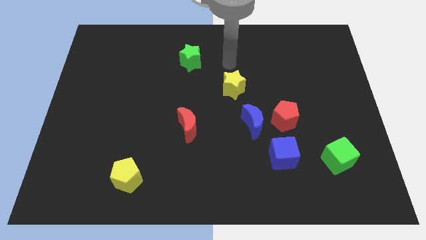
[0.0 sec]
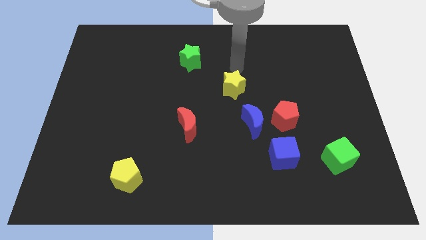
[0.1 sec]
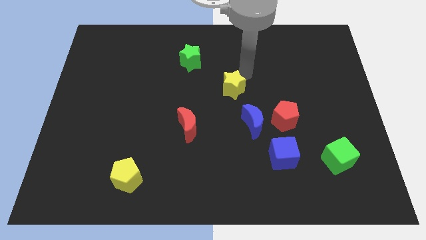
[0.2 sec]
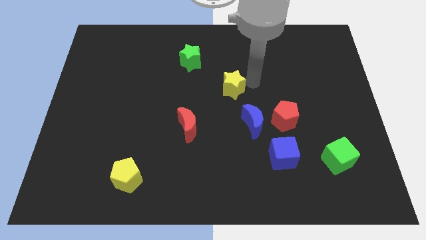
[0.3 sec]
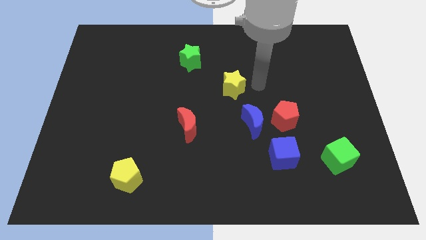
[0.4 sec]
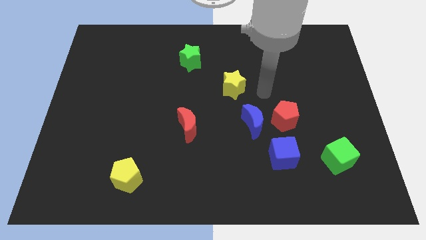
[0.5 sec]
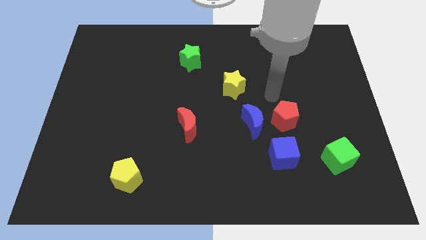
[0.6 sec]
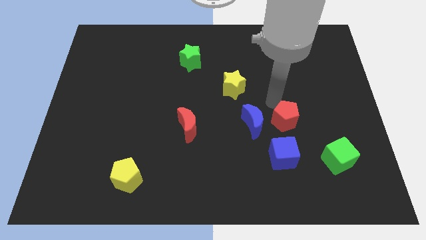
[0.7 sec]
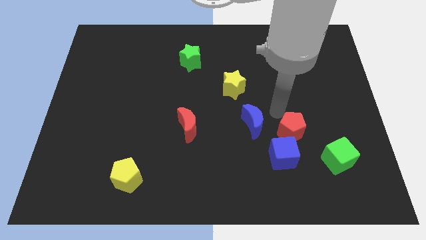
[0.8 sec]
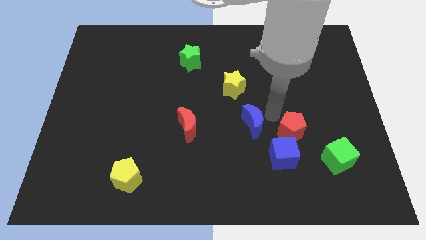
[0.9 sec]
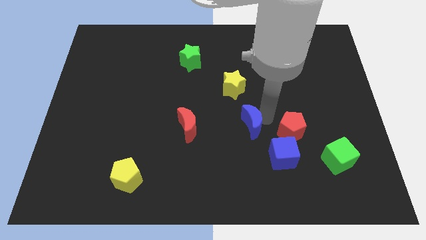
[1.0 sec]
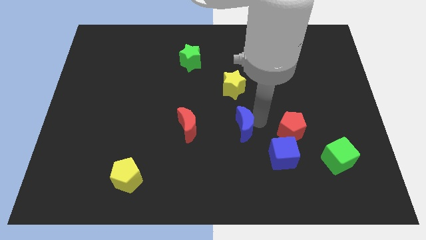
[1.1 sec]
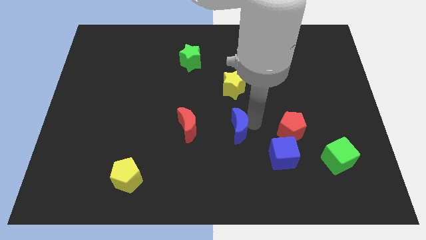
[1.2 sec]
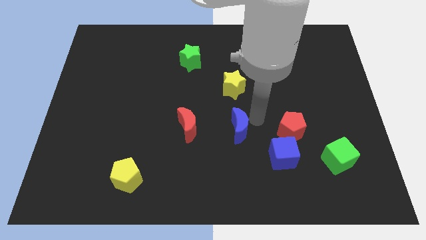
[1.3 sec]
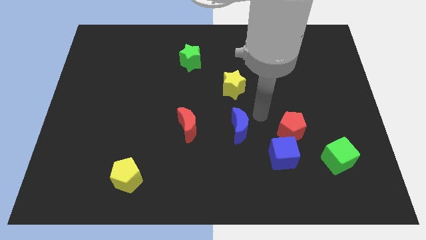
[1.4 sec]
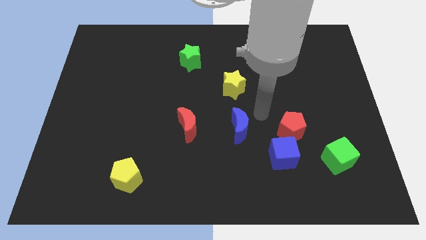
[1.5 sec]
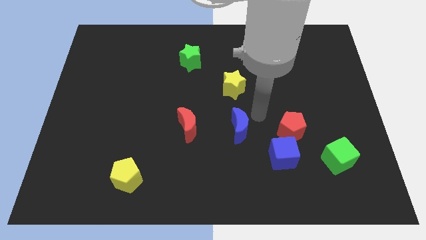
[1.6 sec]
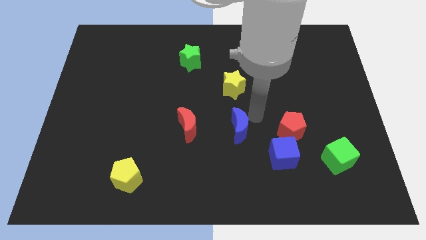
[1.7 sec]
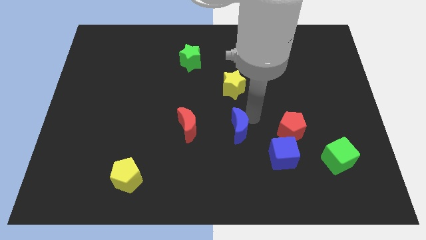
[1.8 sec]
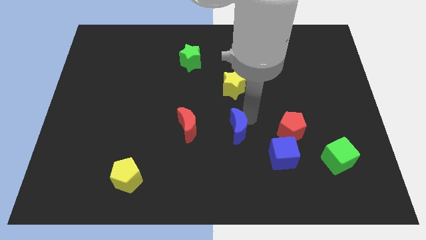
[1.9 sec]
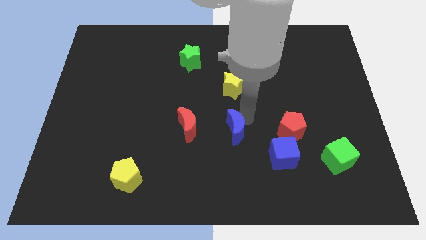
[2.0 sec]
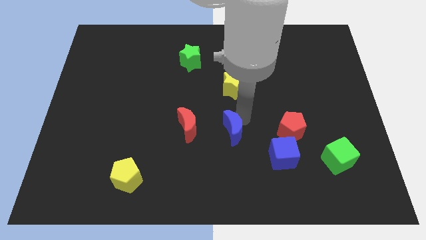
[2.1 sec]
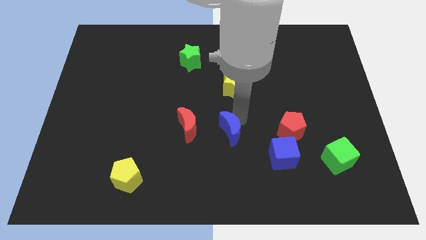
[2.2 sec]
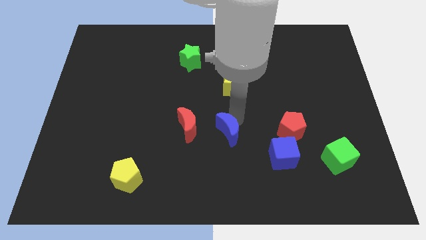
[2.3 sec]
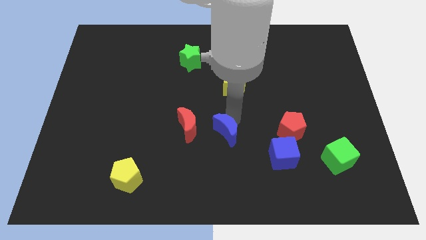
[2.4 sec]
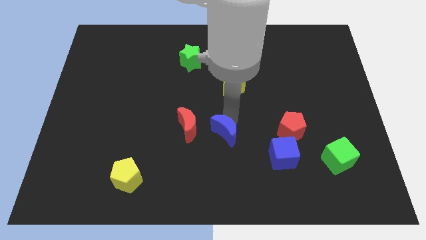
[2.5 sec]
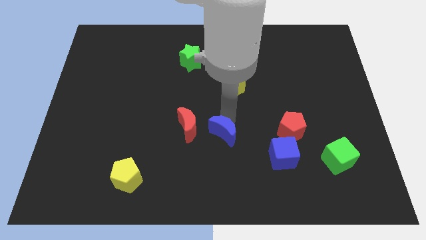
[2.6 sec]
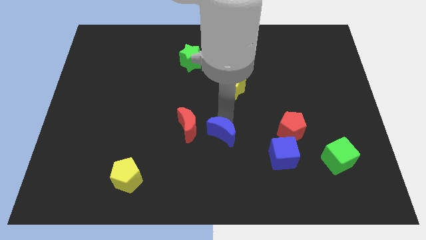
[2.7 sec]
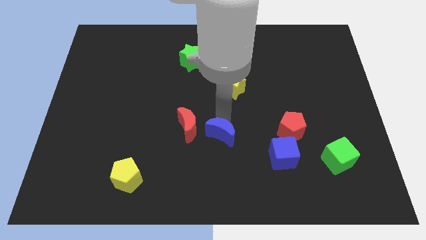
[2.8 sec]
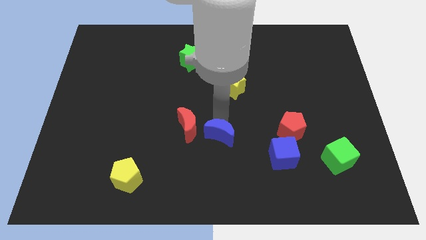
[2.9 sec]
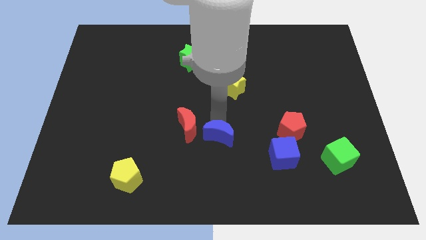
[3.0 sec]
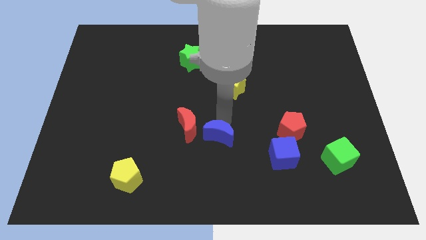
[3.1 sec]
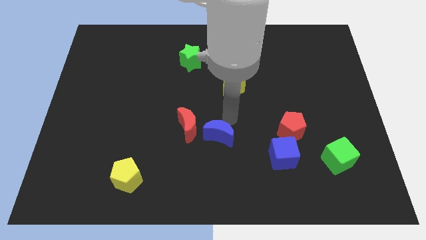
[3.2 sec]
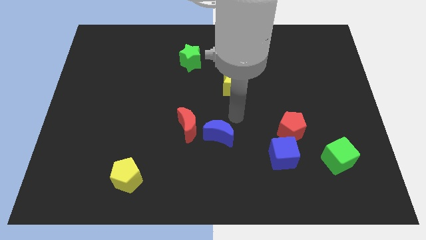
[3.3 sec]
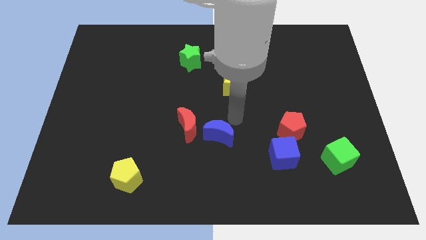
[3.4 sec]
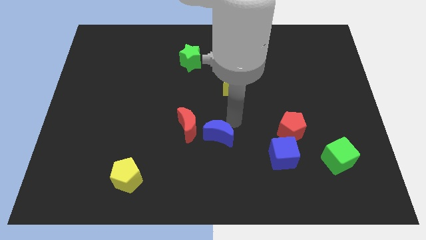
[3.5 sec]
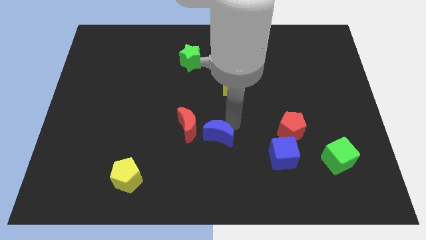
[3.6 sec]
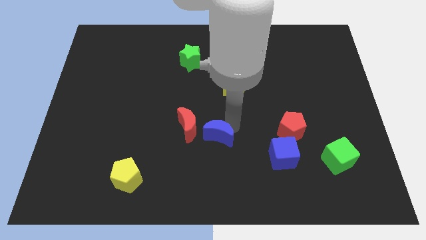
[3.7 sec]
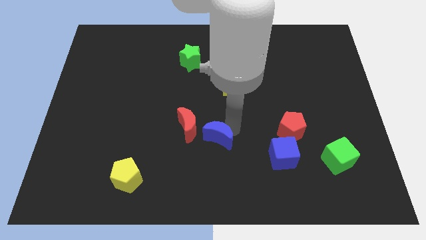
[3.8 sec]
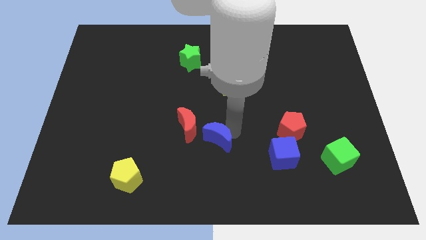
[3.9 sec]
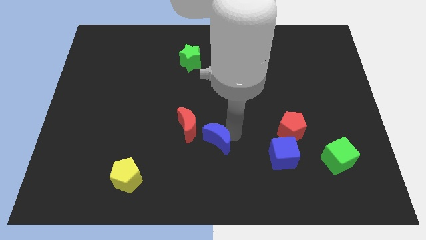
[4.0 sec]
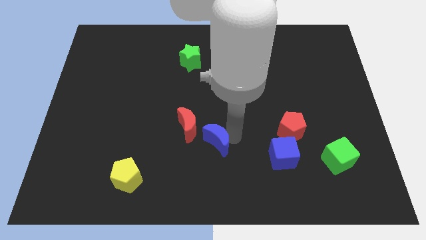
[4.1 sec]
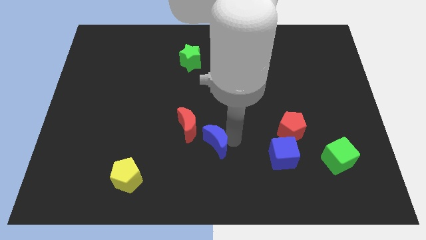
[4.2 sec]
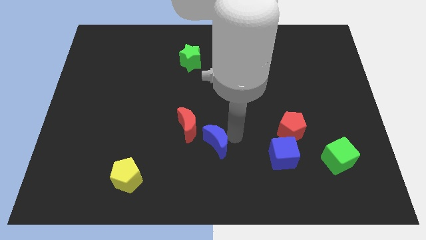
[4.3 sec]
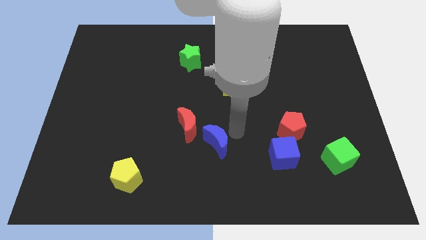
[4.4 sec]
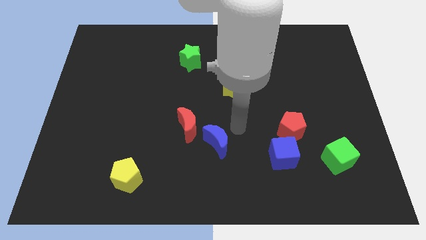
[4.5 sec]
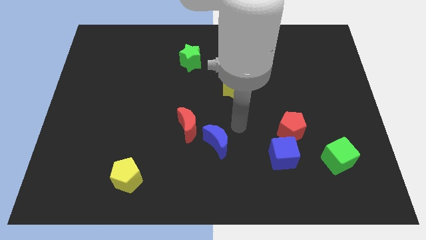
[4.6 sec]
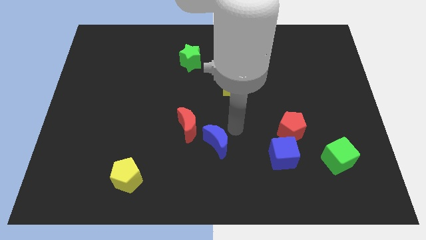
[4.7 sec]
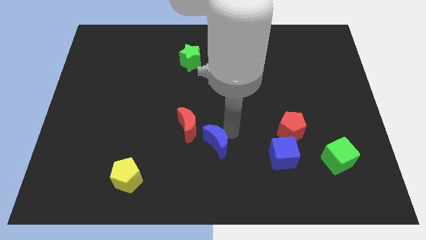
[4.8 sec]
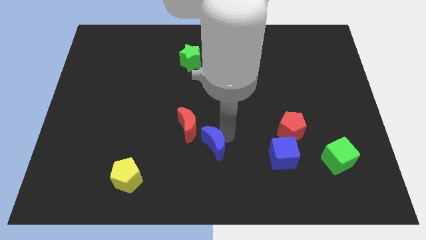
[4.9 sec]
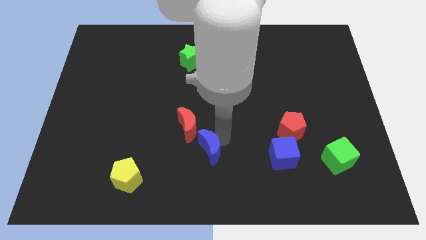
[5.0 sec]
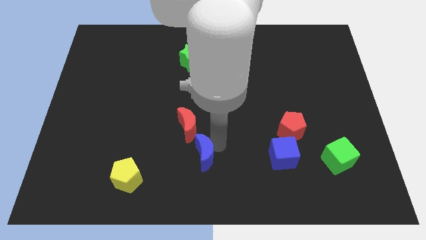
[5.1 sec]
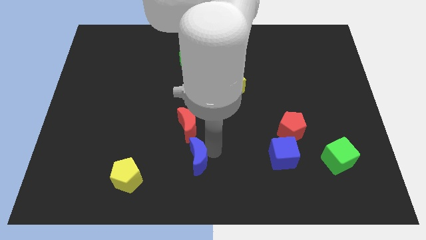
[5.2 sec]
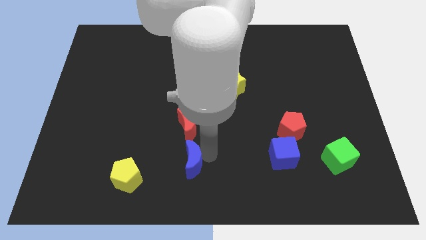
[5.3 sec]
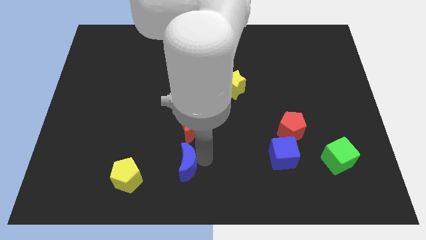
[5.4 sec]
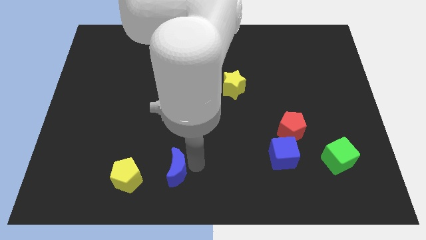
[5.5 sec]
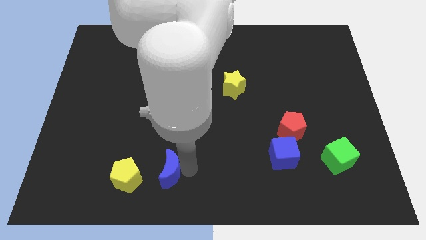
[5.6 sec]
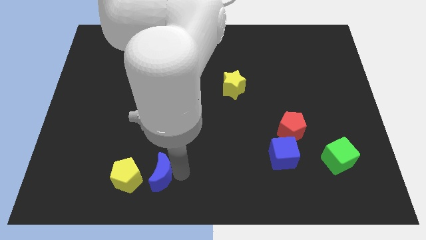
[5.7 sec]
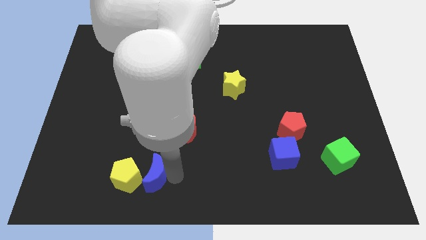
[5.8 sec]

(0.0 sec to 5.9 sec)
push the blue moon next to the yellow pentagon

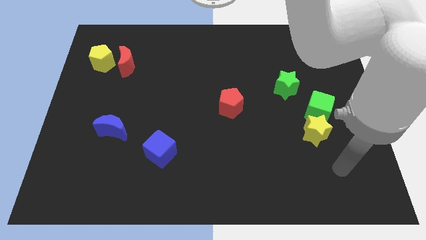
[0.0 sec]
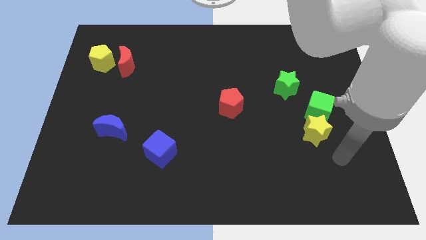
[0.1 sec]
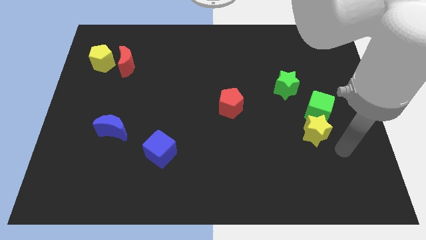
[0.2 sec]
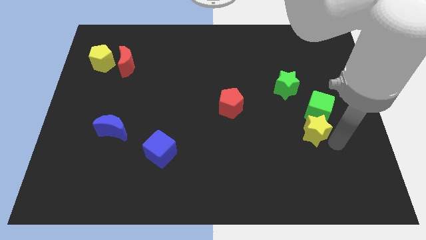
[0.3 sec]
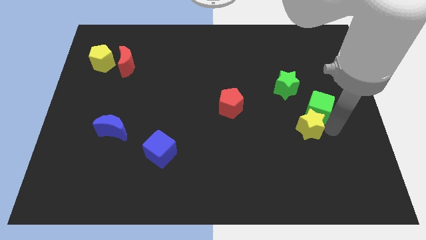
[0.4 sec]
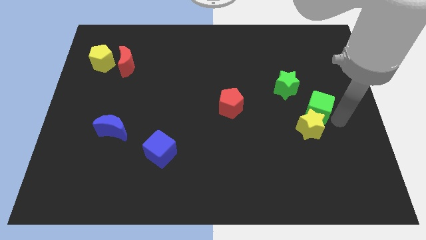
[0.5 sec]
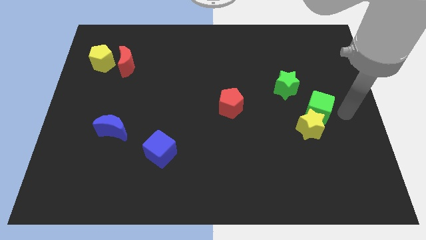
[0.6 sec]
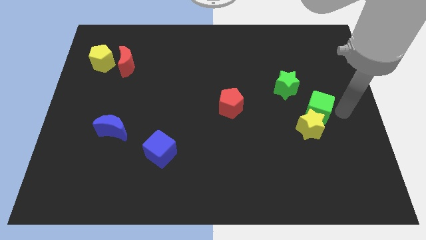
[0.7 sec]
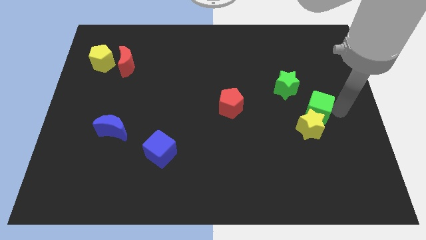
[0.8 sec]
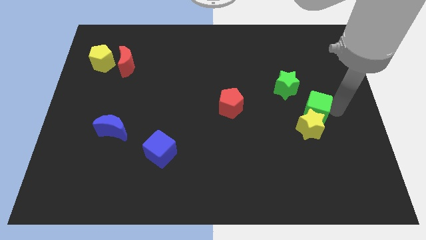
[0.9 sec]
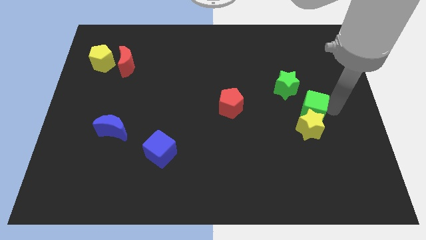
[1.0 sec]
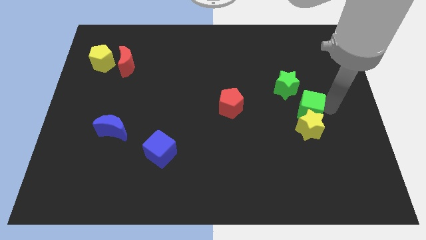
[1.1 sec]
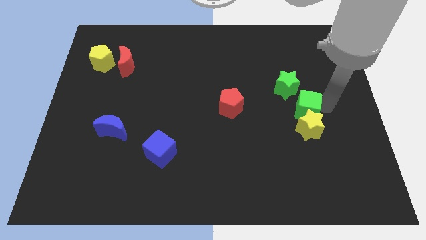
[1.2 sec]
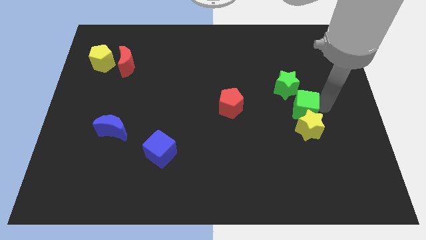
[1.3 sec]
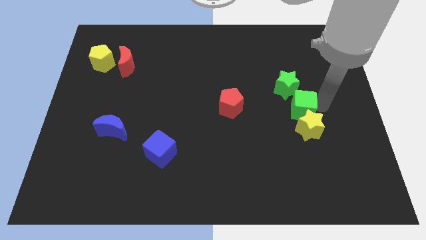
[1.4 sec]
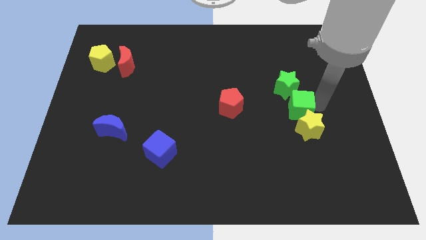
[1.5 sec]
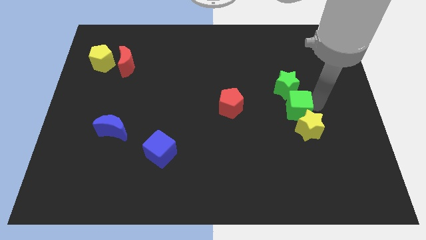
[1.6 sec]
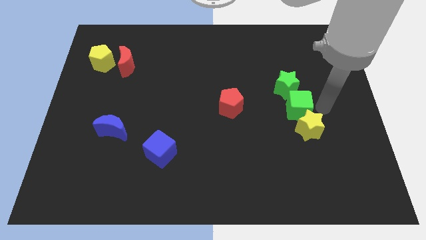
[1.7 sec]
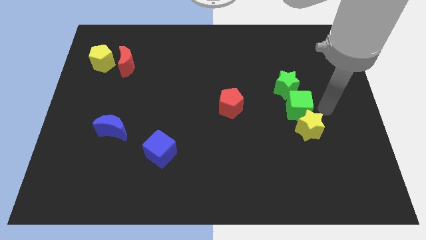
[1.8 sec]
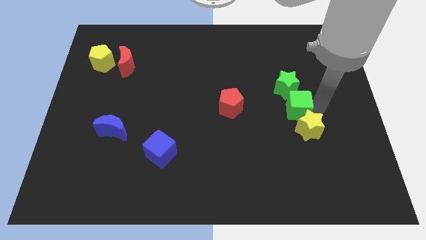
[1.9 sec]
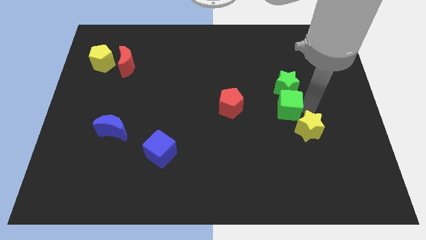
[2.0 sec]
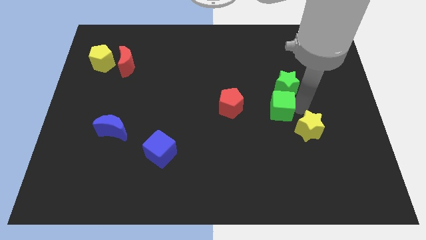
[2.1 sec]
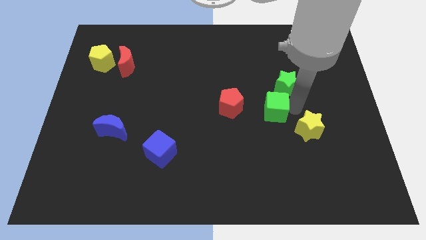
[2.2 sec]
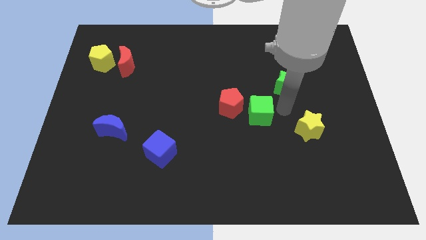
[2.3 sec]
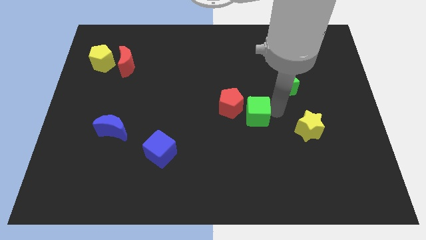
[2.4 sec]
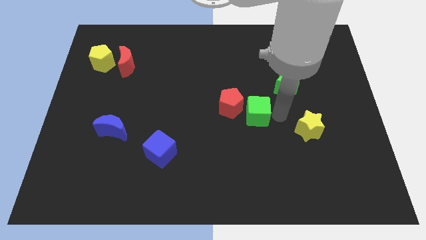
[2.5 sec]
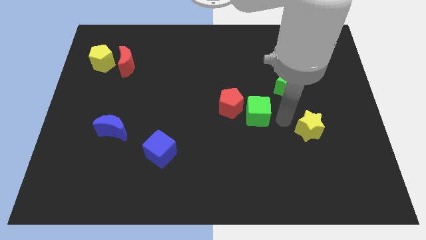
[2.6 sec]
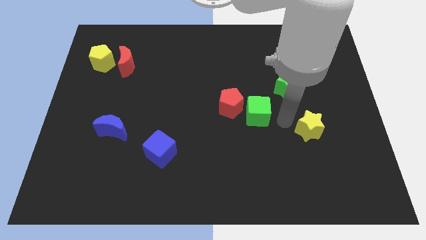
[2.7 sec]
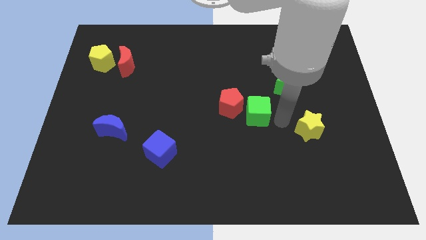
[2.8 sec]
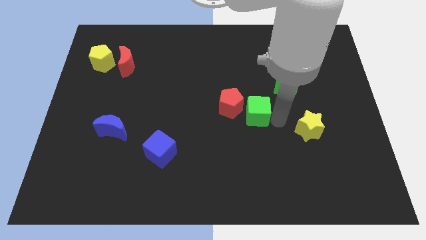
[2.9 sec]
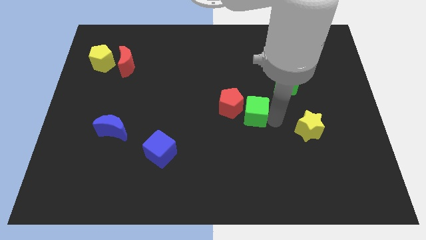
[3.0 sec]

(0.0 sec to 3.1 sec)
put the green cube close to the red pentagon
